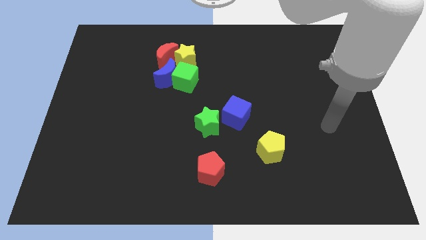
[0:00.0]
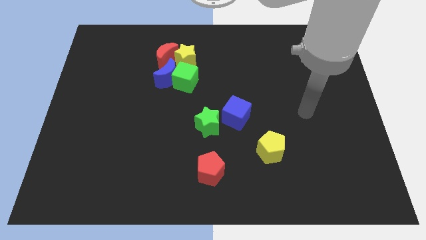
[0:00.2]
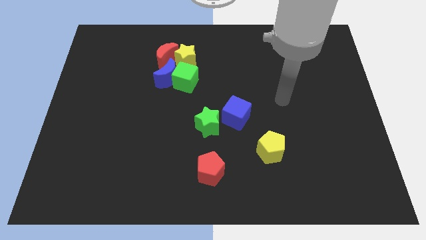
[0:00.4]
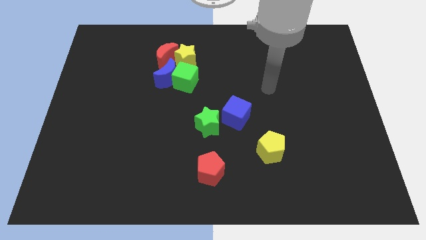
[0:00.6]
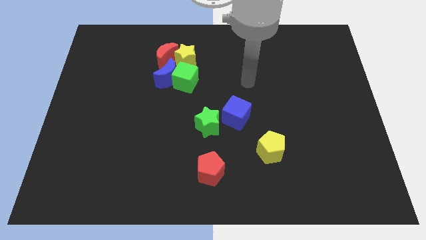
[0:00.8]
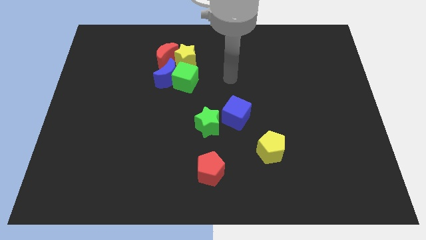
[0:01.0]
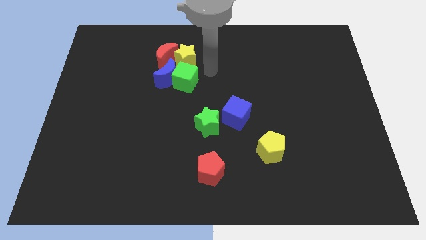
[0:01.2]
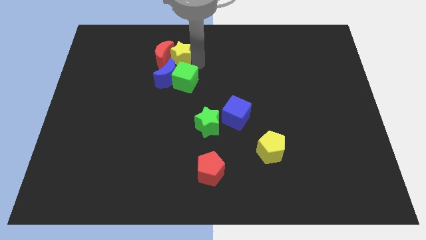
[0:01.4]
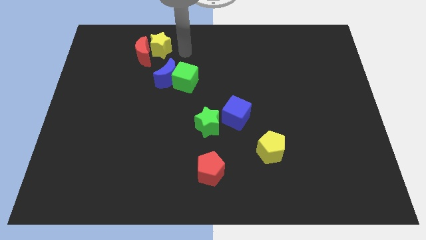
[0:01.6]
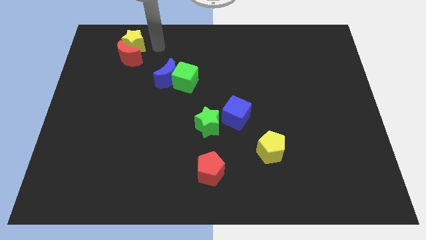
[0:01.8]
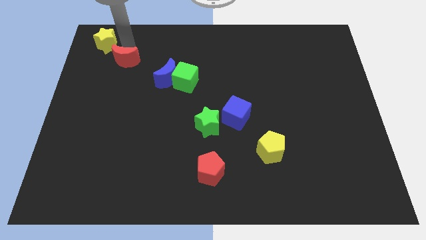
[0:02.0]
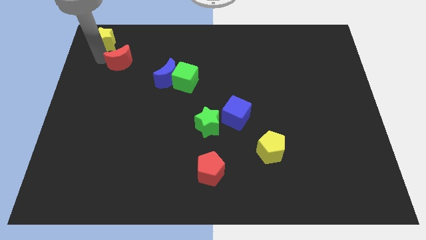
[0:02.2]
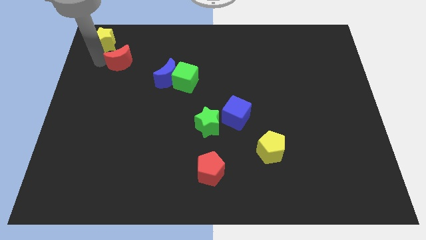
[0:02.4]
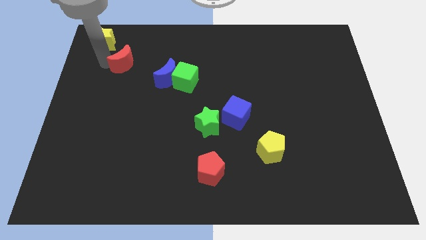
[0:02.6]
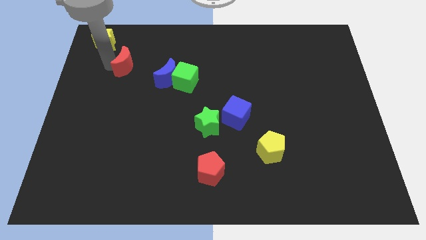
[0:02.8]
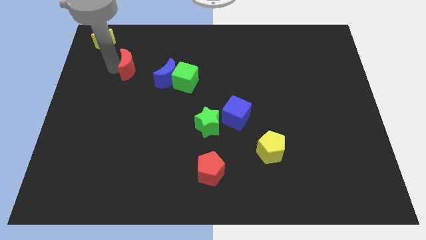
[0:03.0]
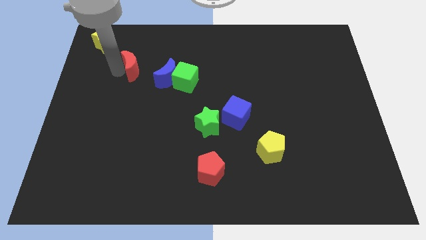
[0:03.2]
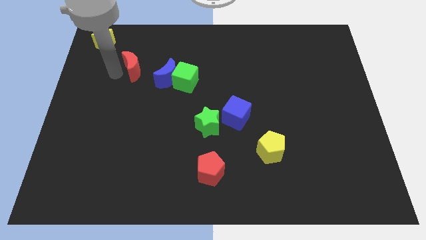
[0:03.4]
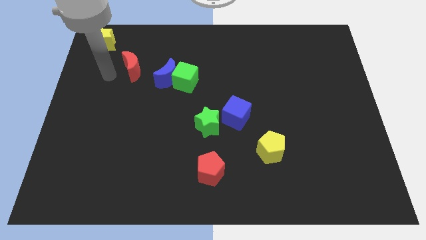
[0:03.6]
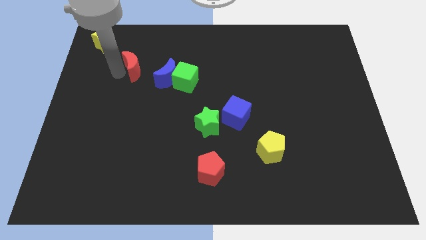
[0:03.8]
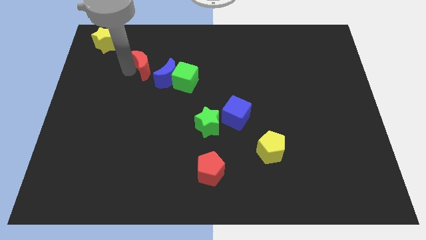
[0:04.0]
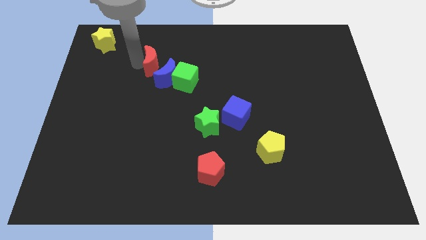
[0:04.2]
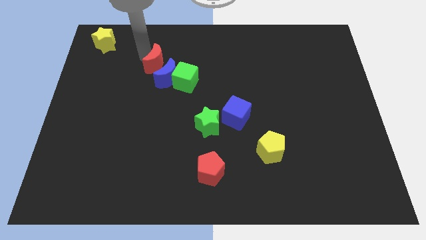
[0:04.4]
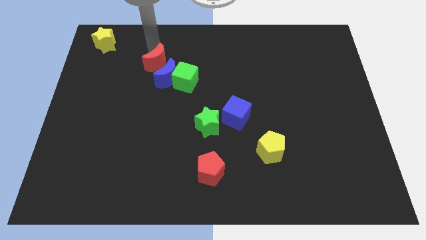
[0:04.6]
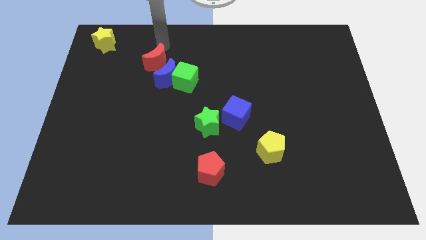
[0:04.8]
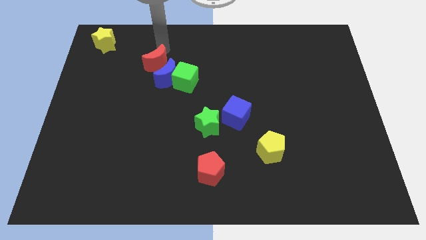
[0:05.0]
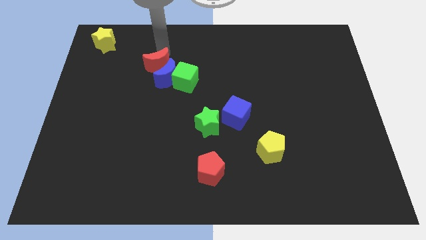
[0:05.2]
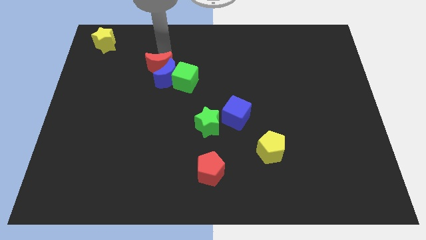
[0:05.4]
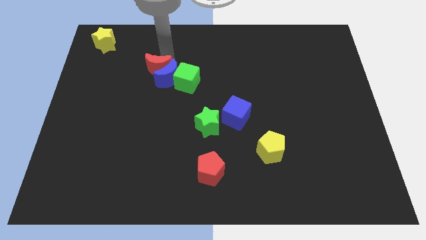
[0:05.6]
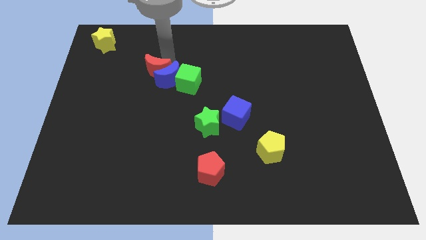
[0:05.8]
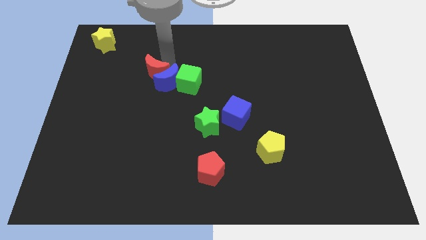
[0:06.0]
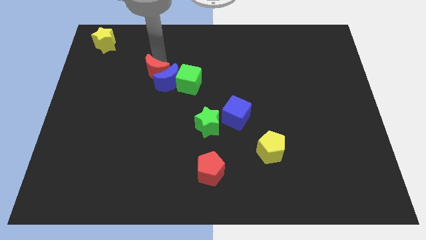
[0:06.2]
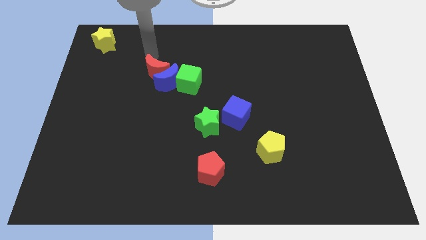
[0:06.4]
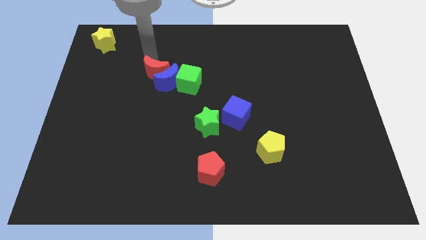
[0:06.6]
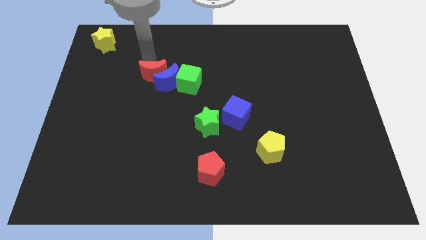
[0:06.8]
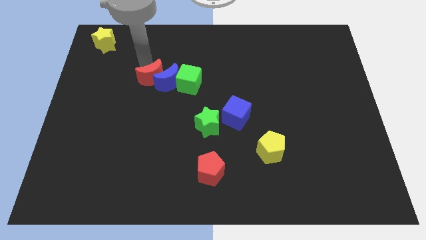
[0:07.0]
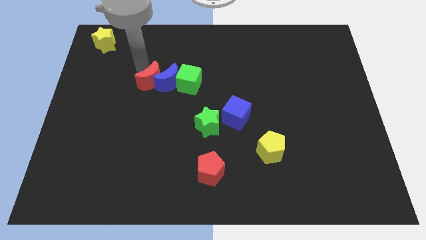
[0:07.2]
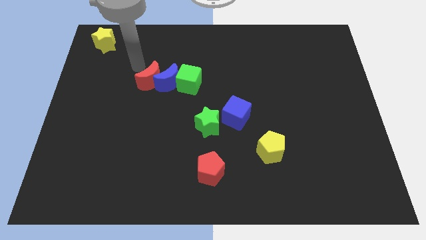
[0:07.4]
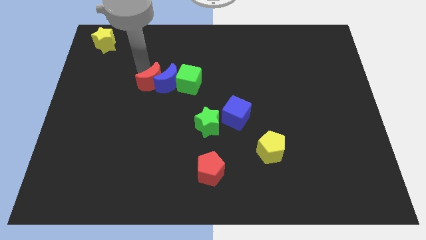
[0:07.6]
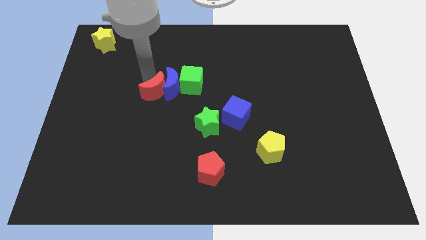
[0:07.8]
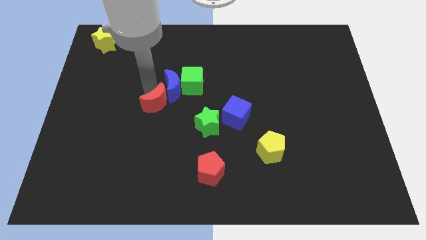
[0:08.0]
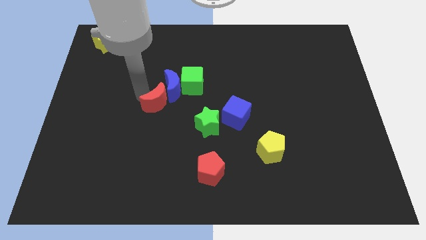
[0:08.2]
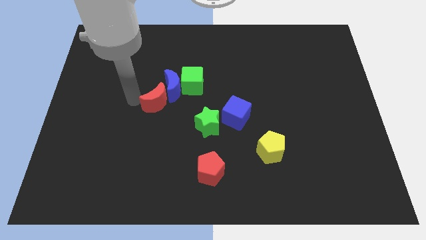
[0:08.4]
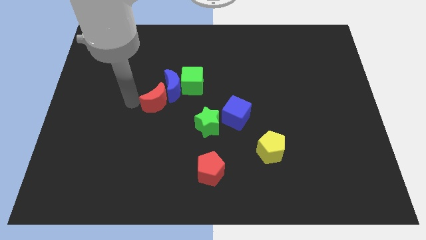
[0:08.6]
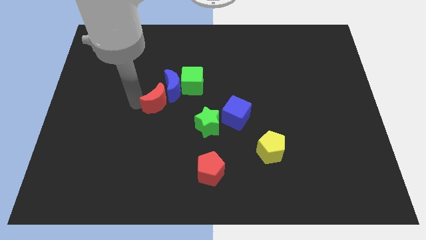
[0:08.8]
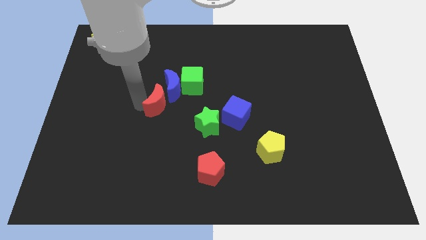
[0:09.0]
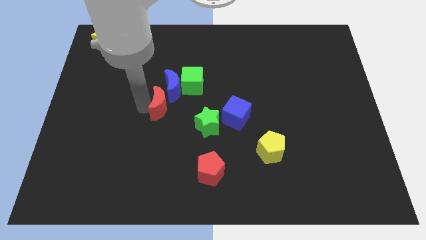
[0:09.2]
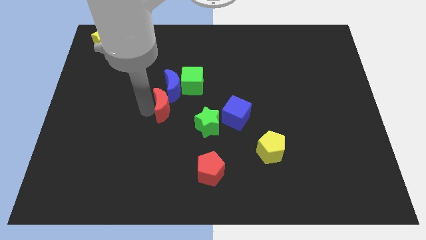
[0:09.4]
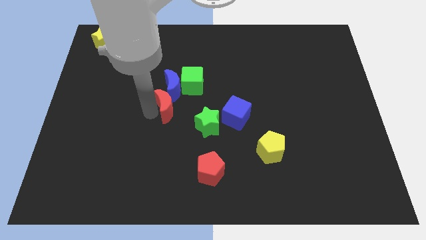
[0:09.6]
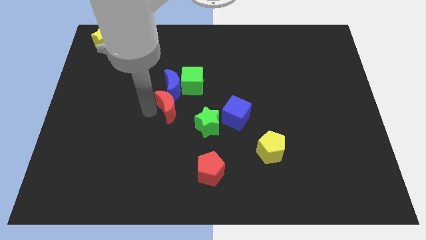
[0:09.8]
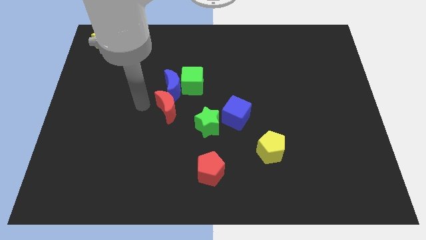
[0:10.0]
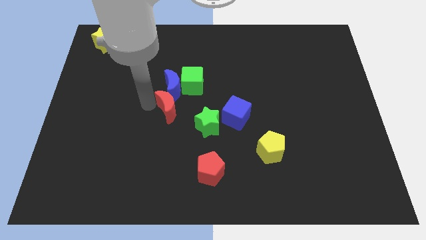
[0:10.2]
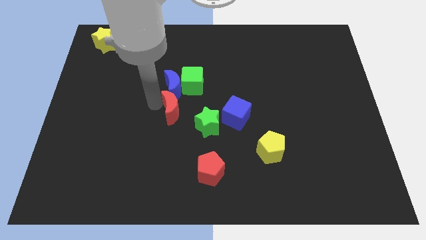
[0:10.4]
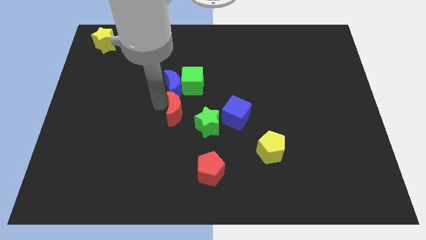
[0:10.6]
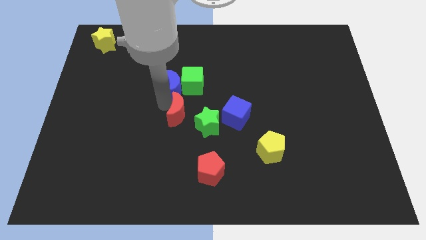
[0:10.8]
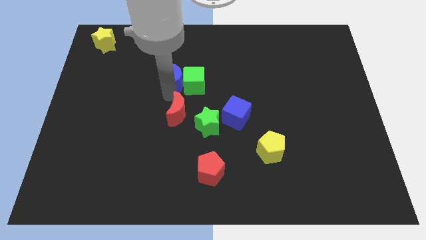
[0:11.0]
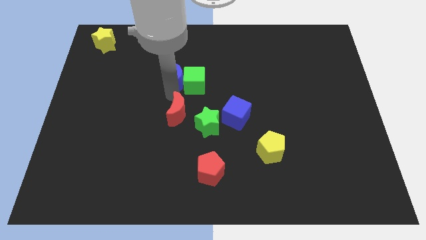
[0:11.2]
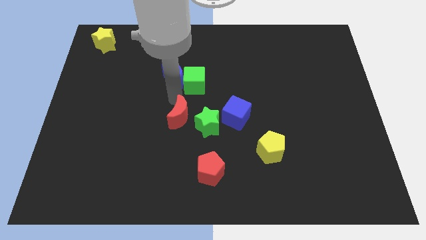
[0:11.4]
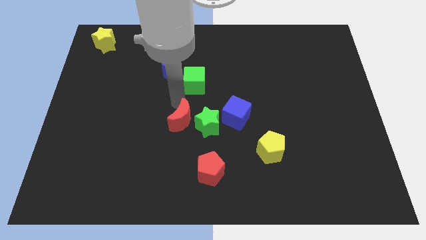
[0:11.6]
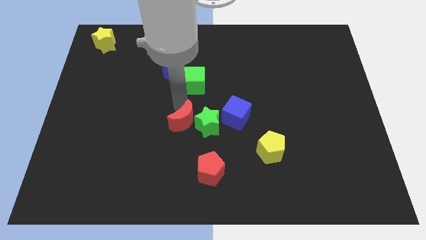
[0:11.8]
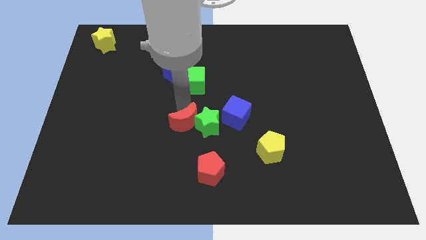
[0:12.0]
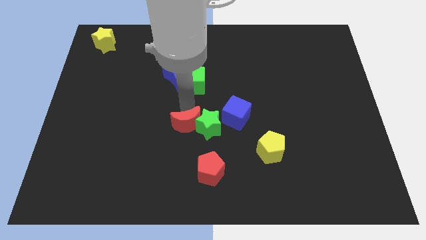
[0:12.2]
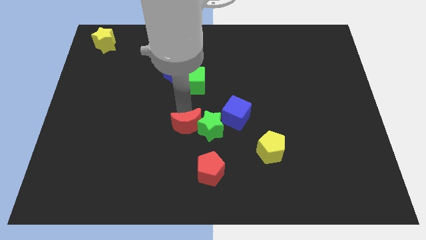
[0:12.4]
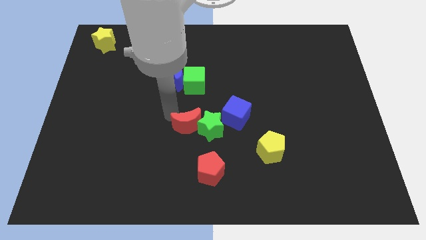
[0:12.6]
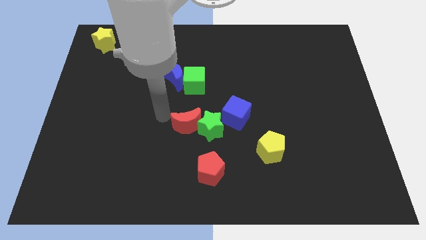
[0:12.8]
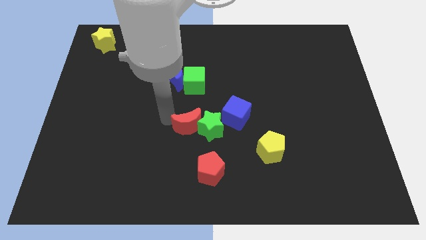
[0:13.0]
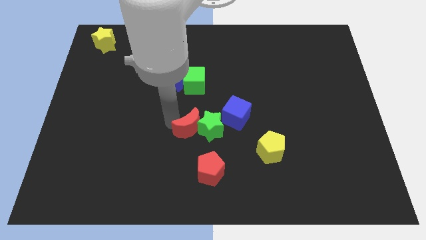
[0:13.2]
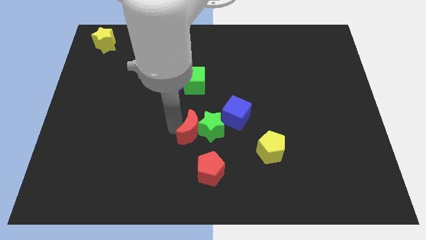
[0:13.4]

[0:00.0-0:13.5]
slide the red moon to the bottom left side of the blue cube

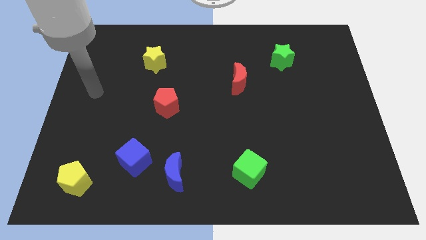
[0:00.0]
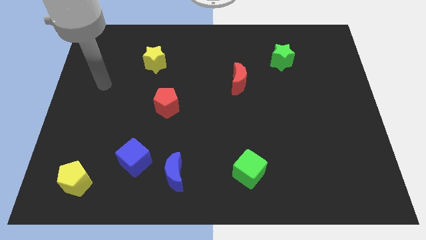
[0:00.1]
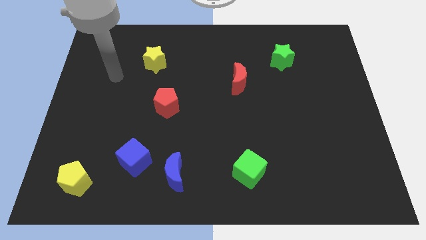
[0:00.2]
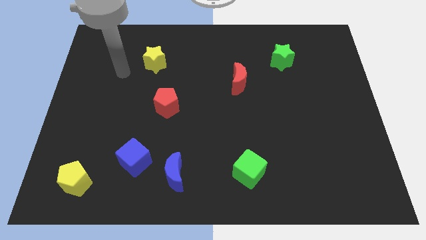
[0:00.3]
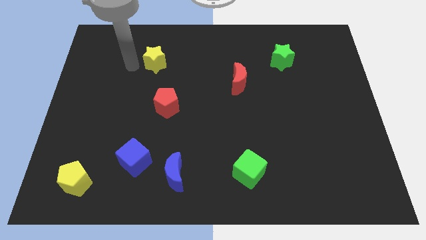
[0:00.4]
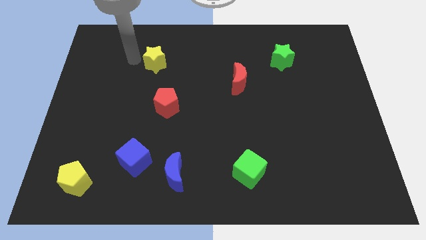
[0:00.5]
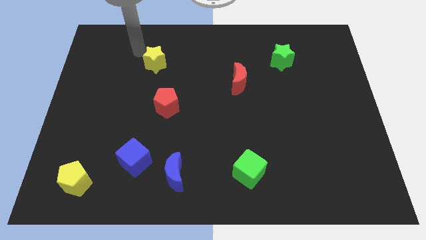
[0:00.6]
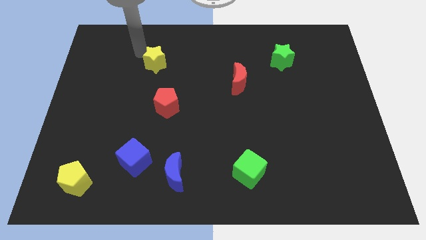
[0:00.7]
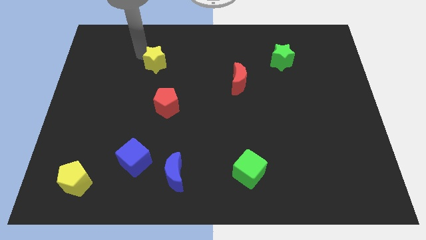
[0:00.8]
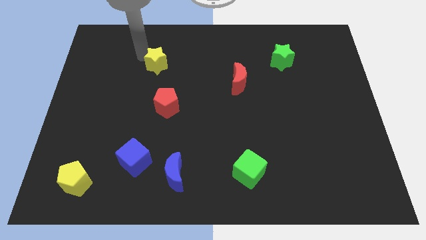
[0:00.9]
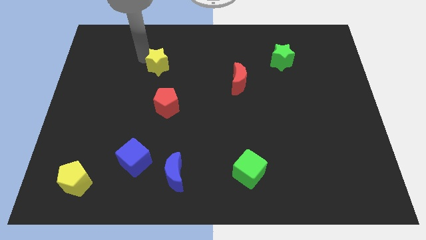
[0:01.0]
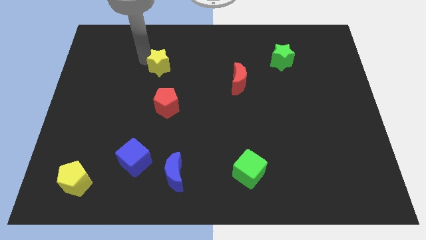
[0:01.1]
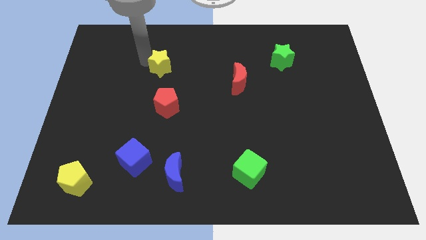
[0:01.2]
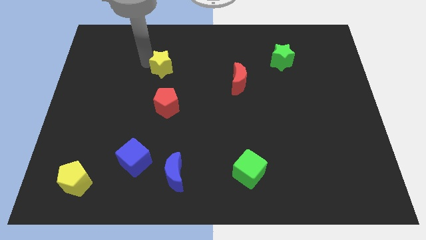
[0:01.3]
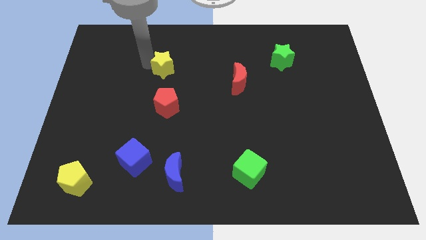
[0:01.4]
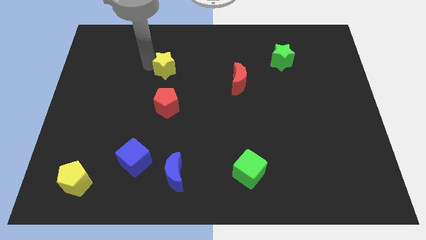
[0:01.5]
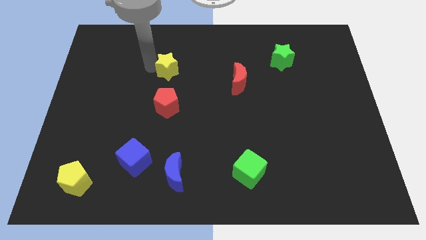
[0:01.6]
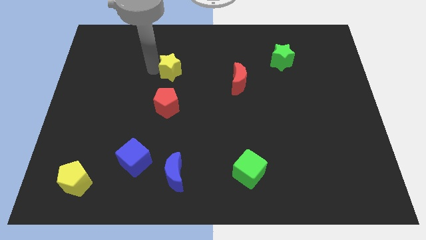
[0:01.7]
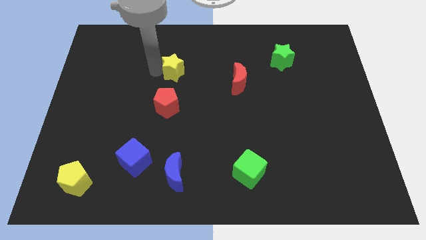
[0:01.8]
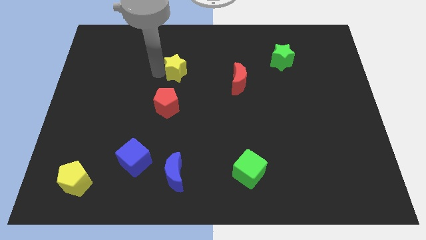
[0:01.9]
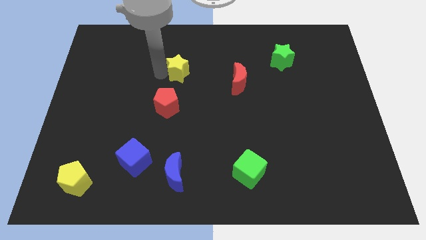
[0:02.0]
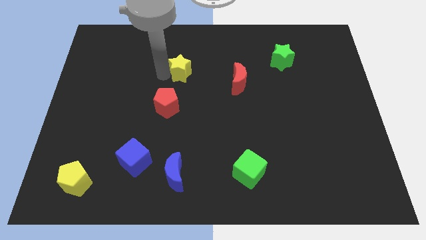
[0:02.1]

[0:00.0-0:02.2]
put the yellow star just left of the red moon
